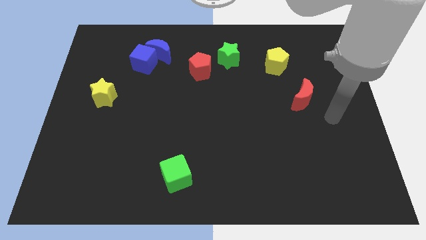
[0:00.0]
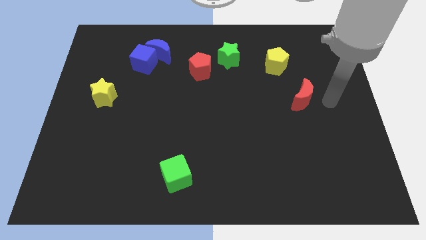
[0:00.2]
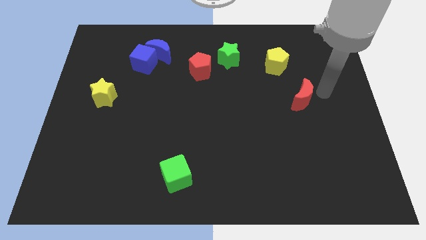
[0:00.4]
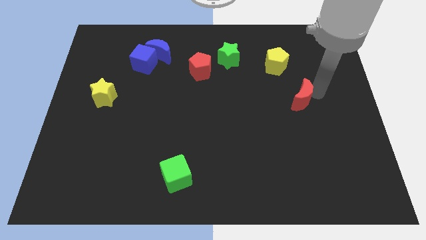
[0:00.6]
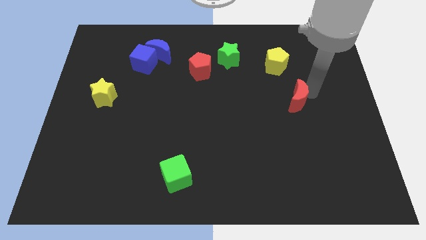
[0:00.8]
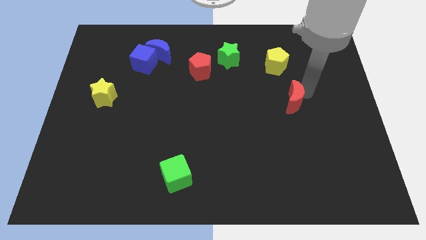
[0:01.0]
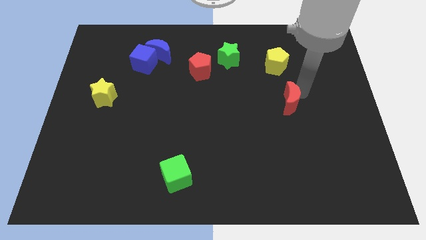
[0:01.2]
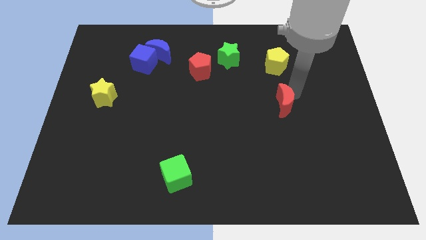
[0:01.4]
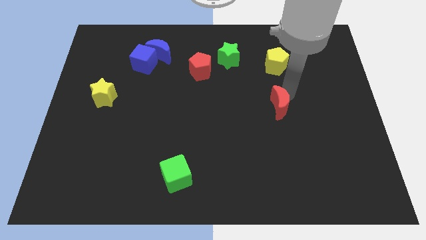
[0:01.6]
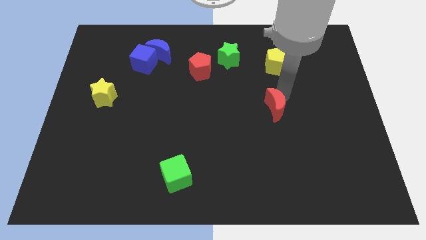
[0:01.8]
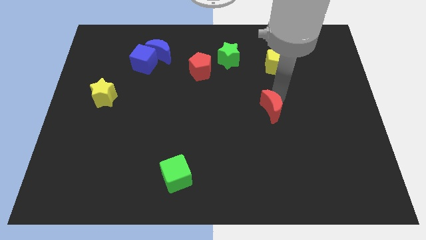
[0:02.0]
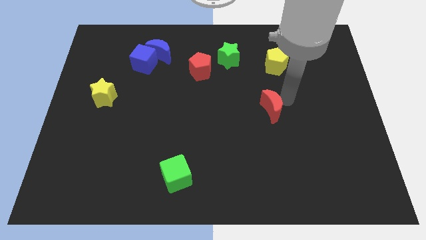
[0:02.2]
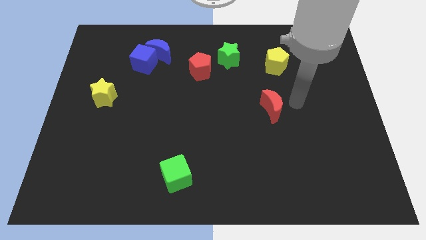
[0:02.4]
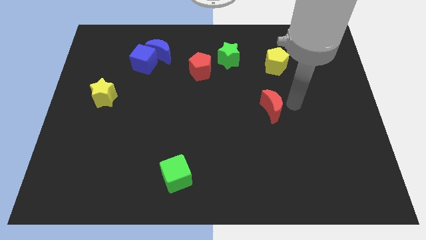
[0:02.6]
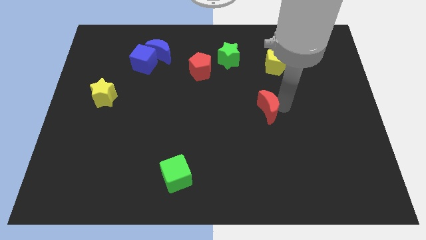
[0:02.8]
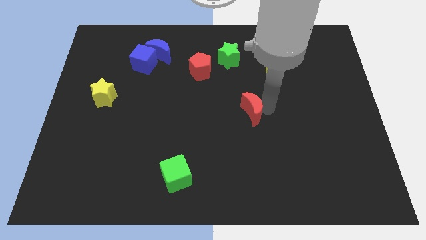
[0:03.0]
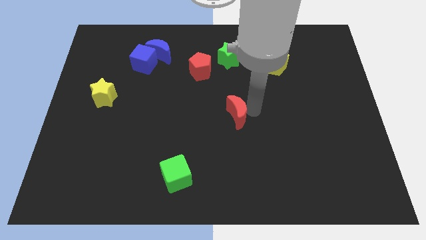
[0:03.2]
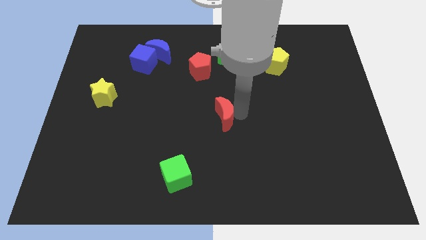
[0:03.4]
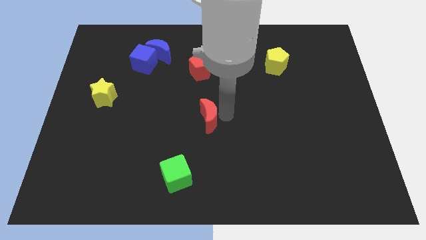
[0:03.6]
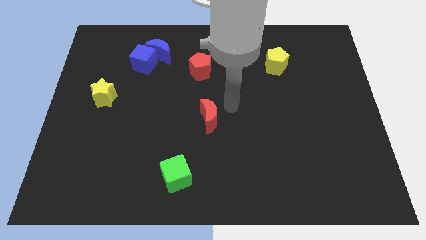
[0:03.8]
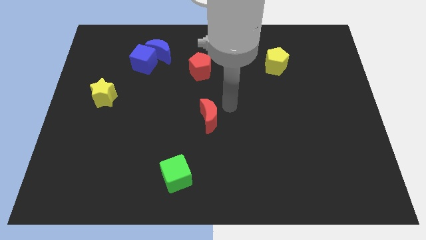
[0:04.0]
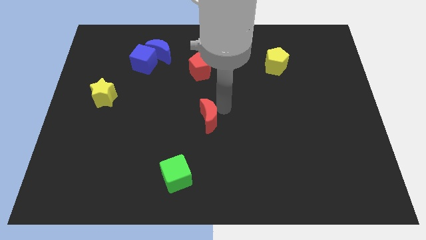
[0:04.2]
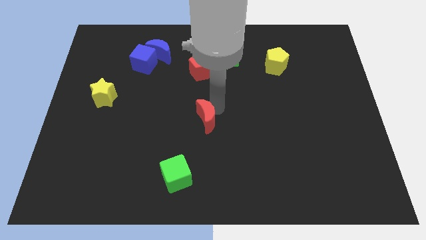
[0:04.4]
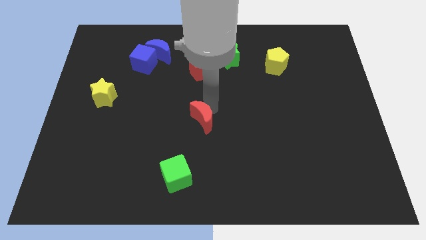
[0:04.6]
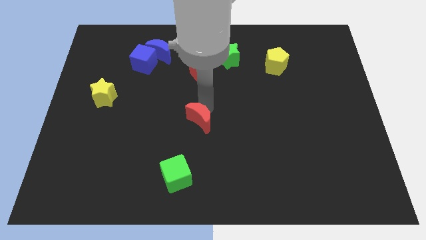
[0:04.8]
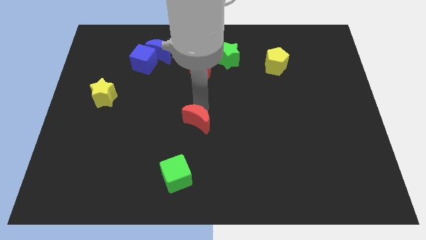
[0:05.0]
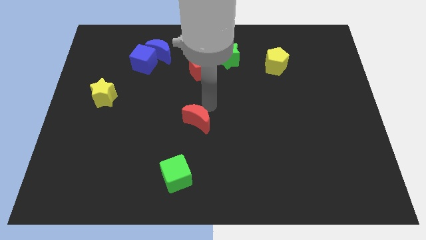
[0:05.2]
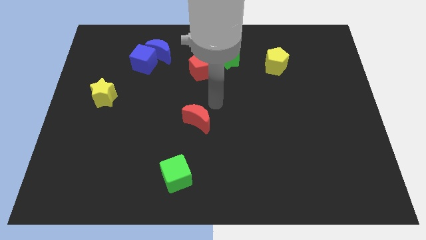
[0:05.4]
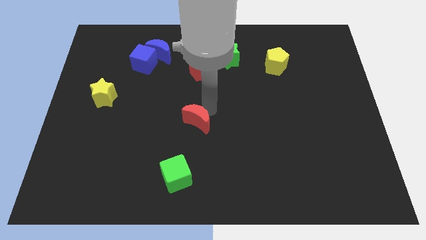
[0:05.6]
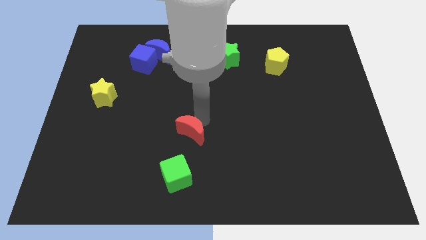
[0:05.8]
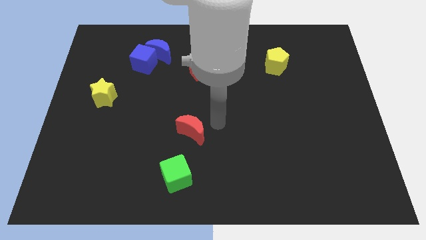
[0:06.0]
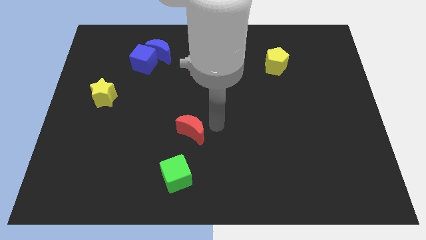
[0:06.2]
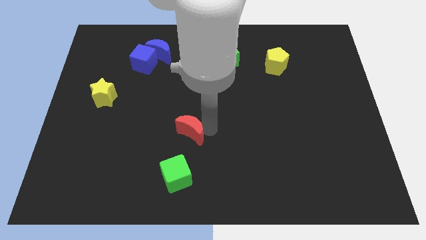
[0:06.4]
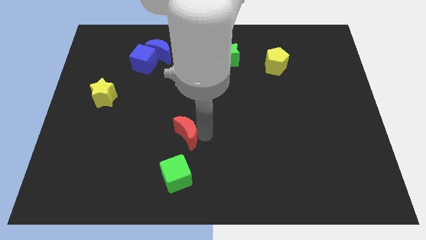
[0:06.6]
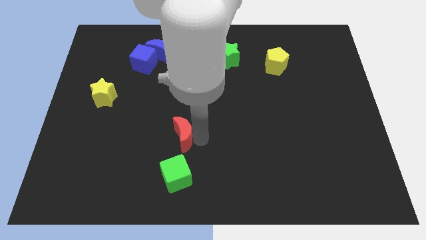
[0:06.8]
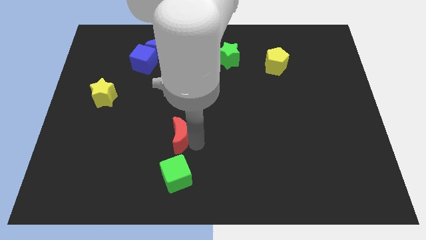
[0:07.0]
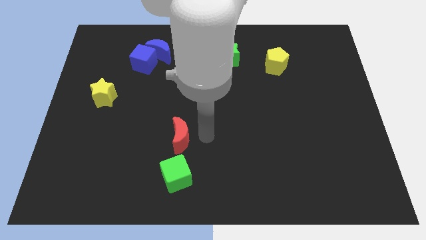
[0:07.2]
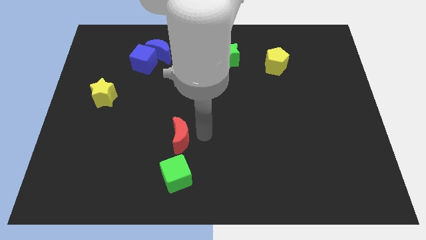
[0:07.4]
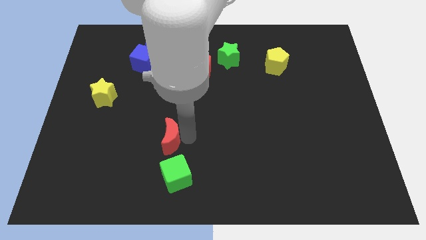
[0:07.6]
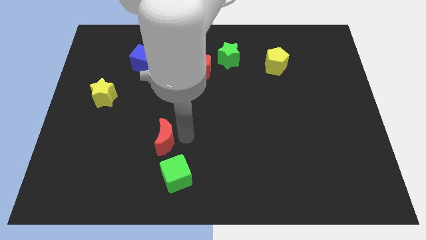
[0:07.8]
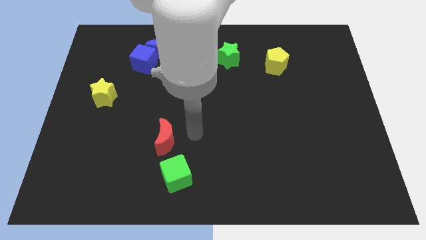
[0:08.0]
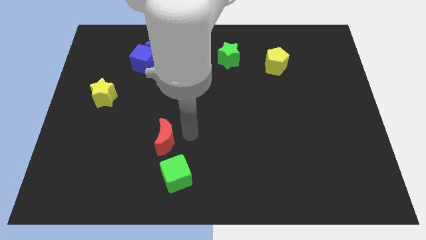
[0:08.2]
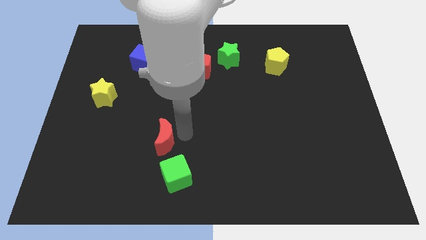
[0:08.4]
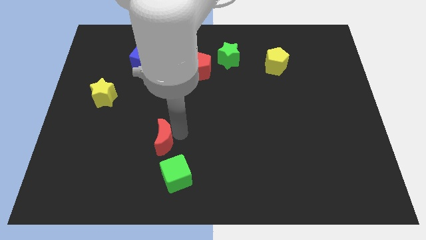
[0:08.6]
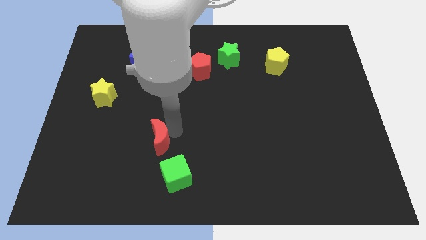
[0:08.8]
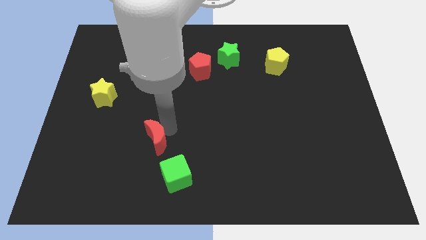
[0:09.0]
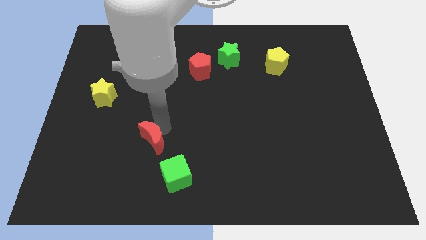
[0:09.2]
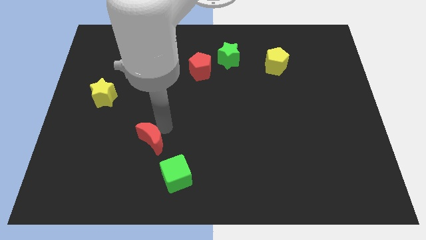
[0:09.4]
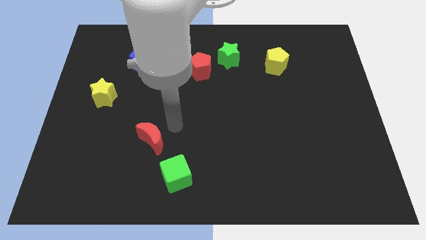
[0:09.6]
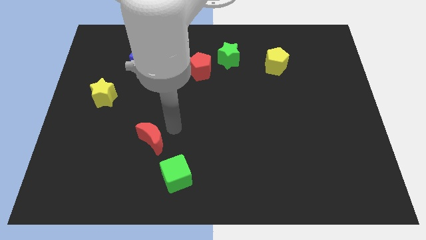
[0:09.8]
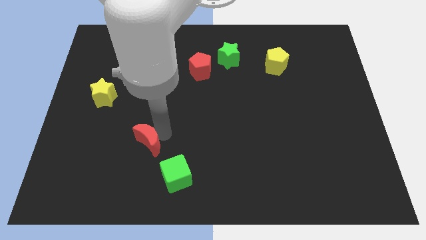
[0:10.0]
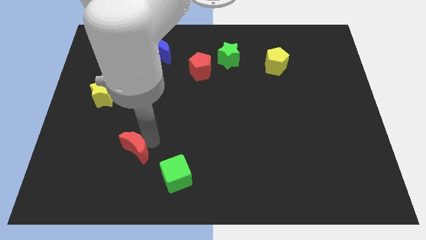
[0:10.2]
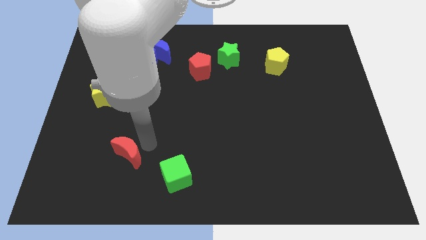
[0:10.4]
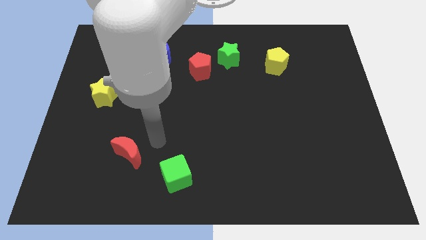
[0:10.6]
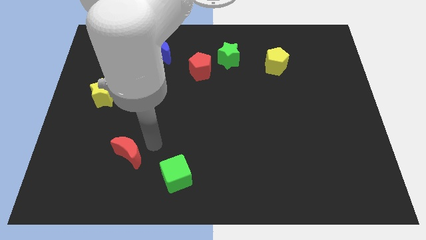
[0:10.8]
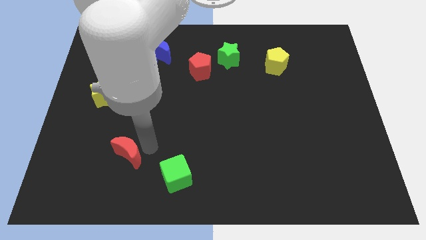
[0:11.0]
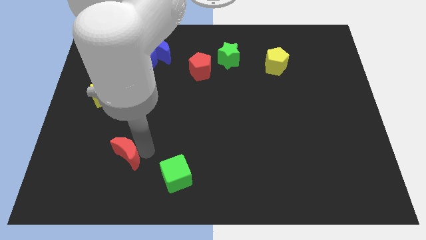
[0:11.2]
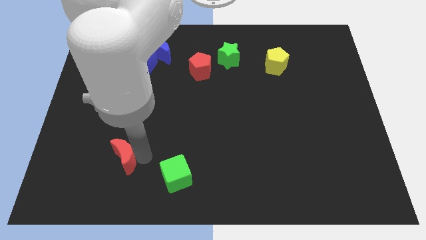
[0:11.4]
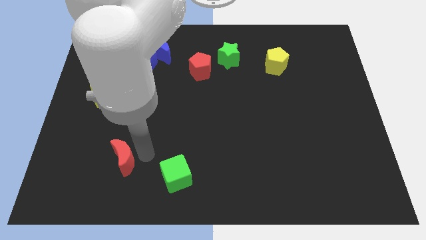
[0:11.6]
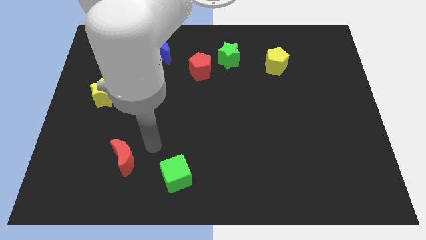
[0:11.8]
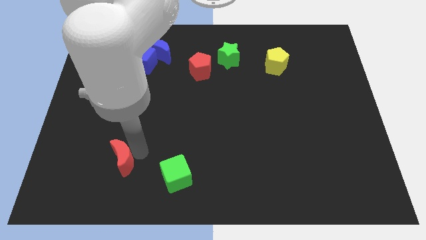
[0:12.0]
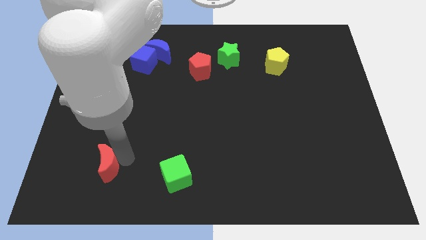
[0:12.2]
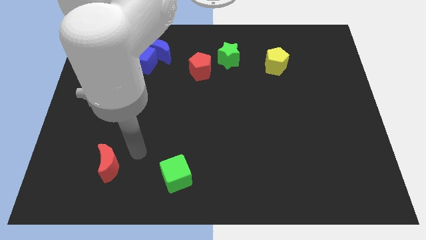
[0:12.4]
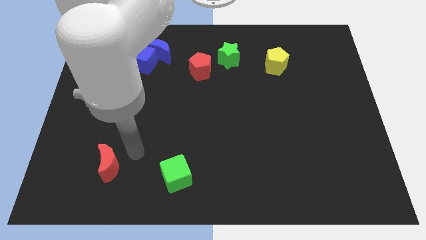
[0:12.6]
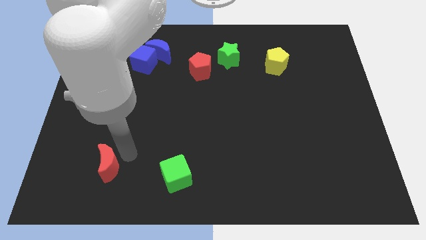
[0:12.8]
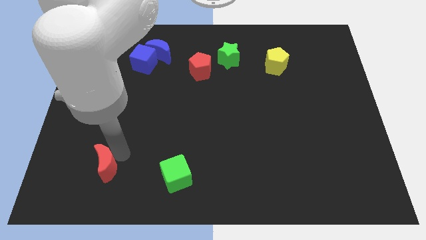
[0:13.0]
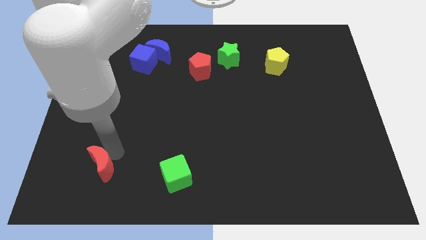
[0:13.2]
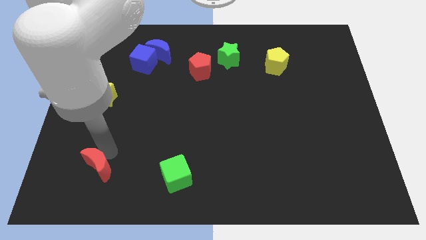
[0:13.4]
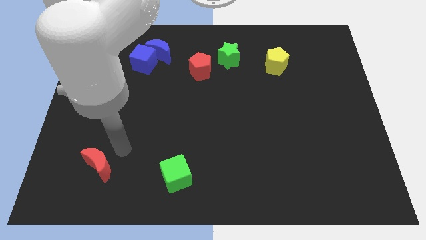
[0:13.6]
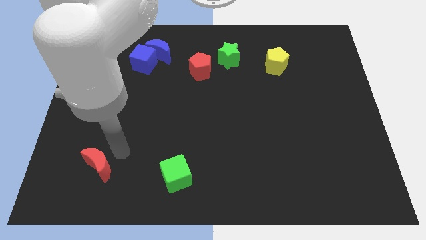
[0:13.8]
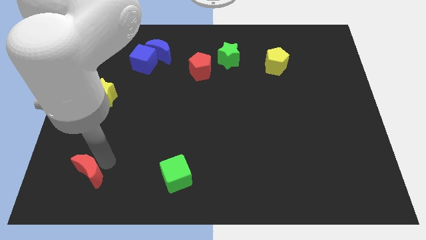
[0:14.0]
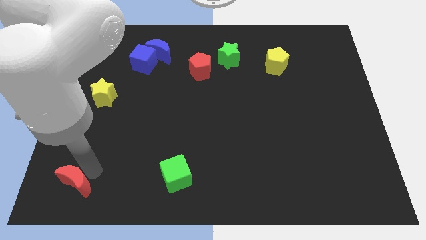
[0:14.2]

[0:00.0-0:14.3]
move the red moon to the bottom left of the board
